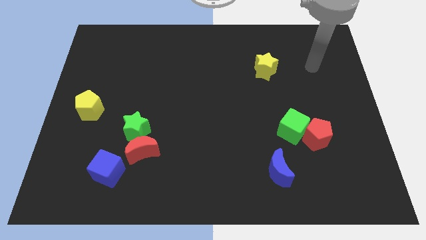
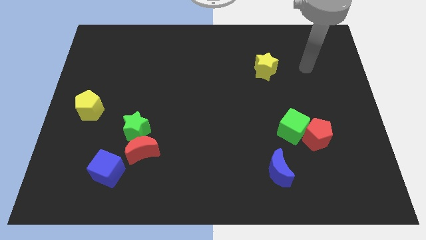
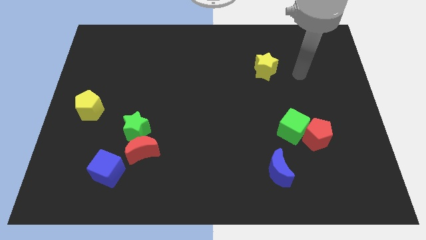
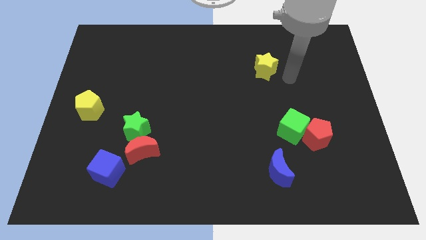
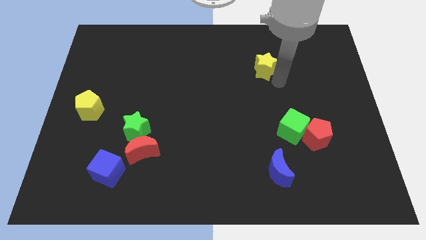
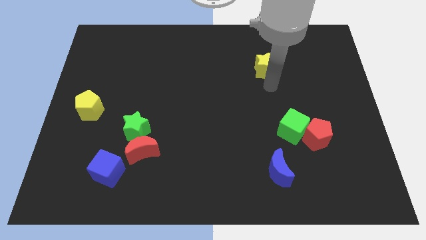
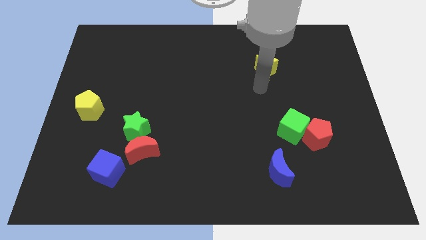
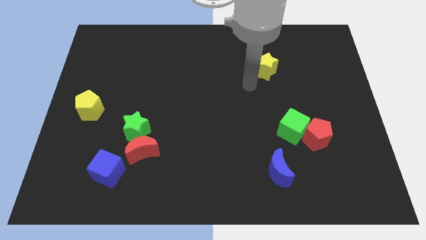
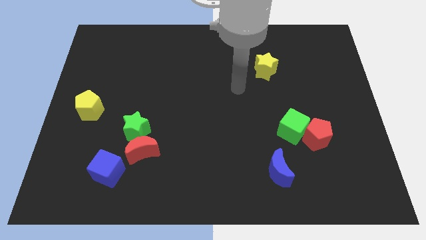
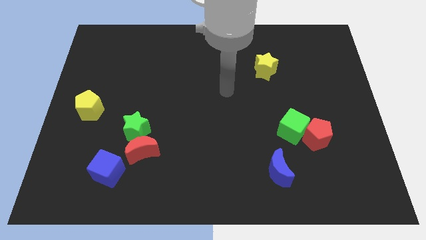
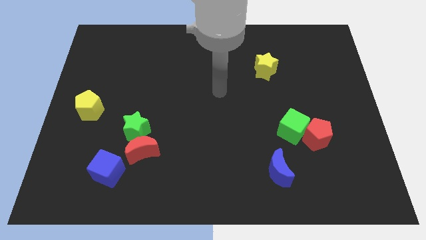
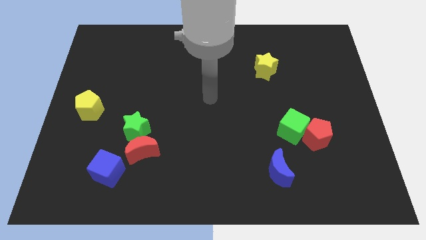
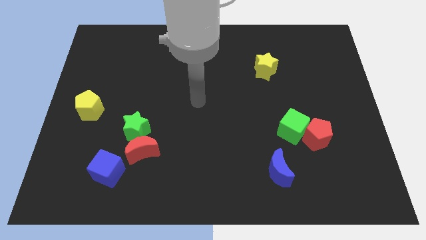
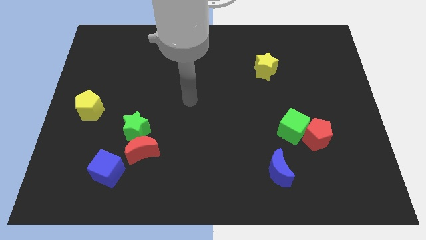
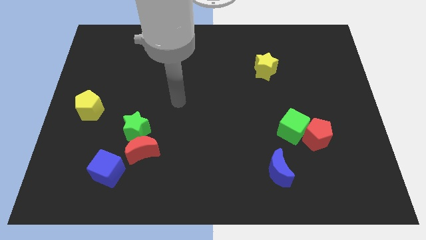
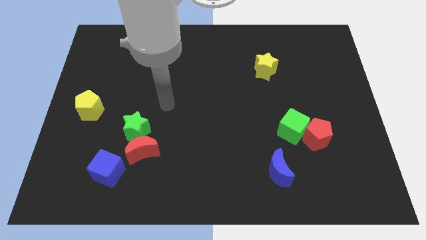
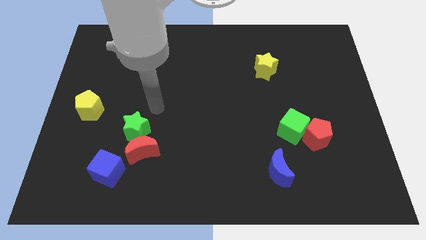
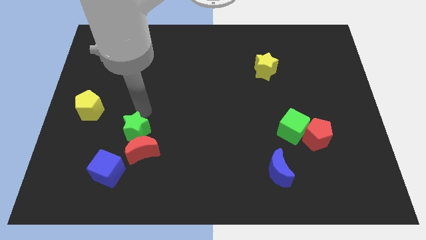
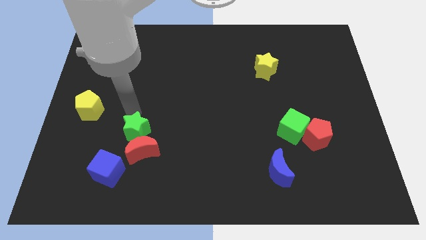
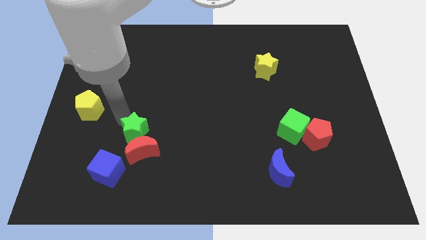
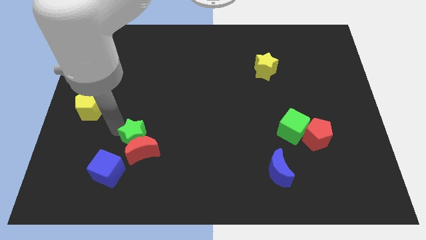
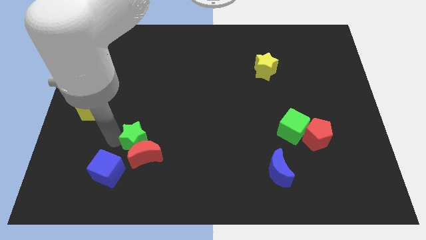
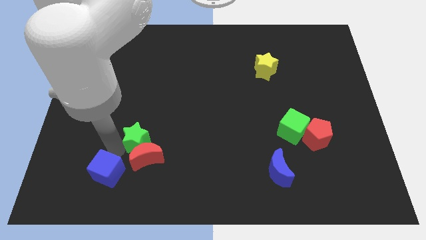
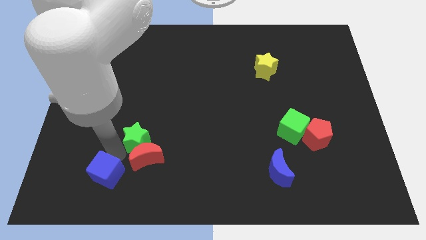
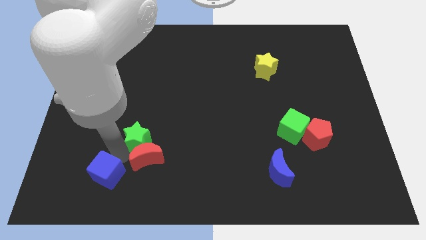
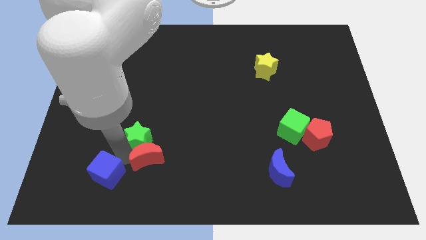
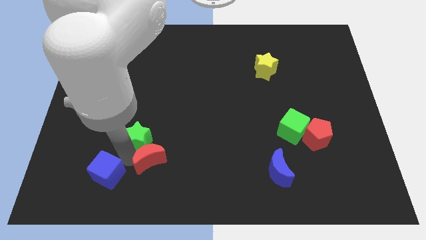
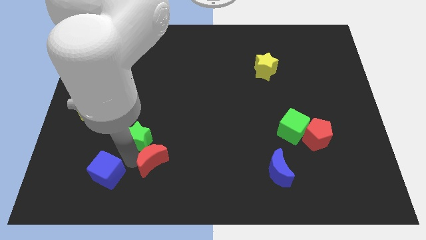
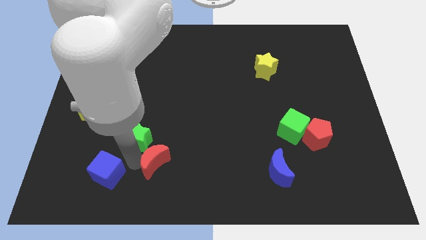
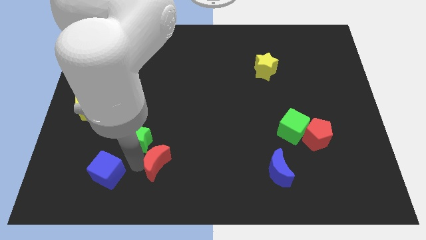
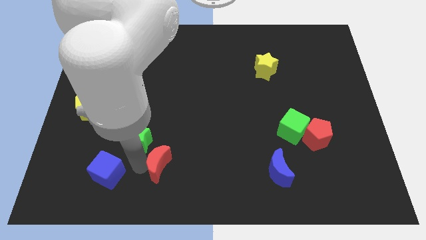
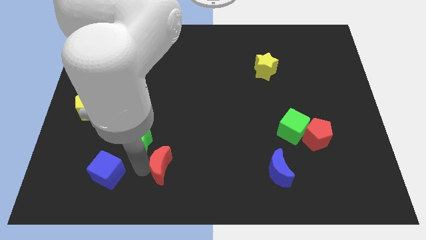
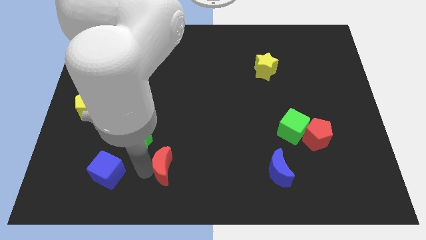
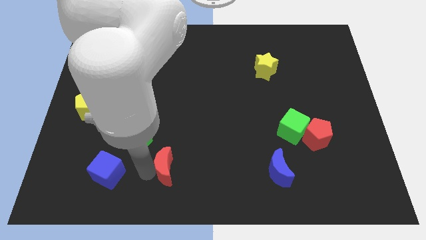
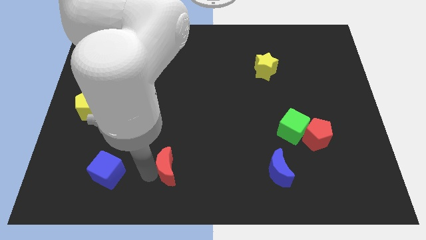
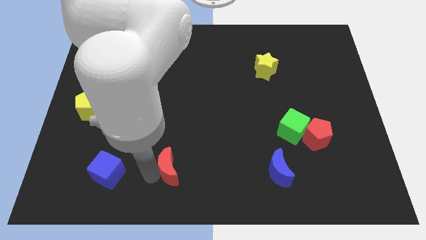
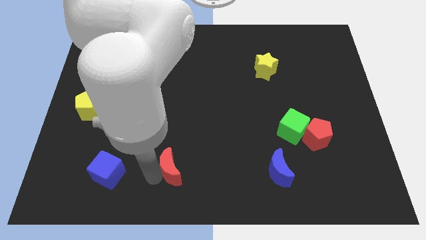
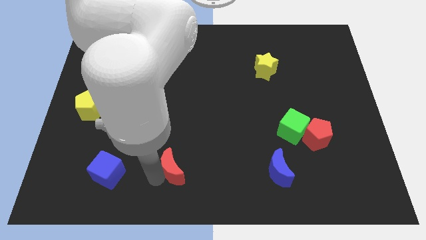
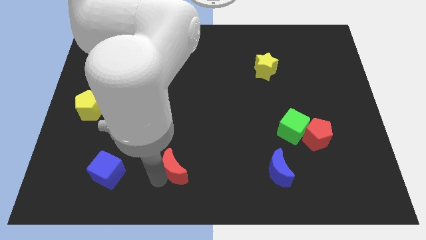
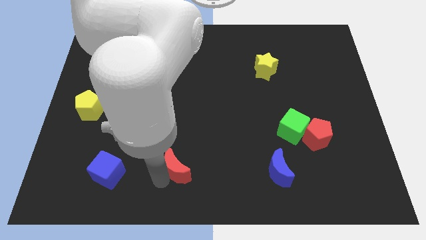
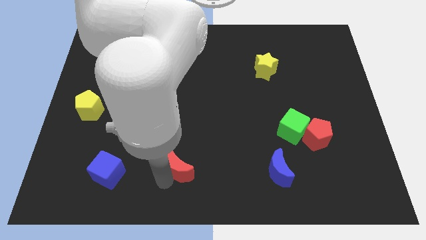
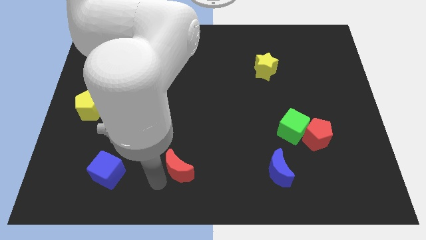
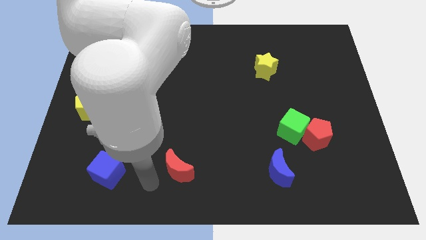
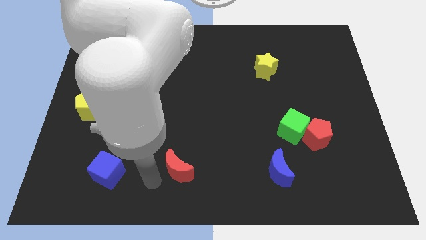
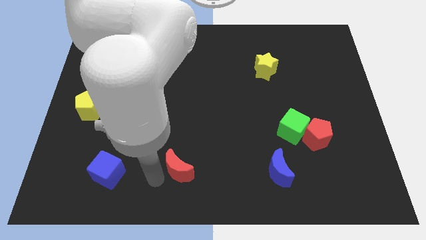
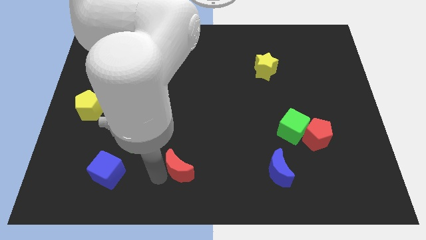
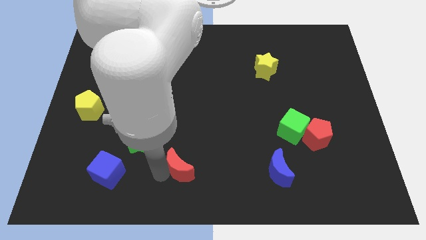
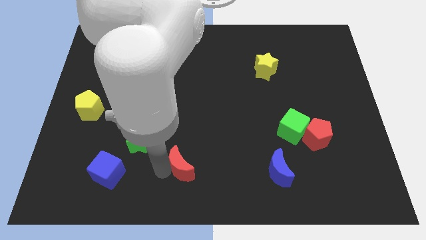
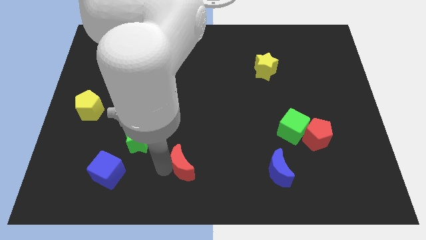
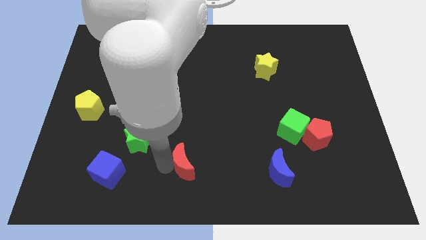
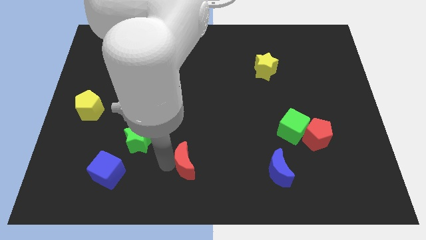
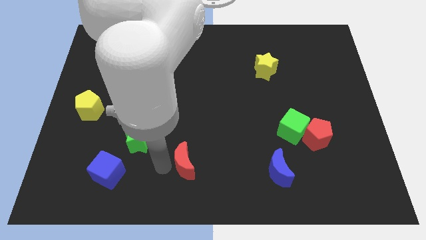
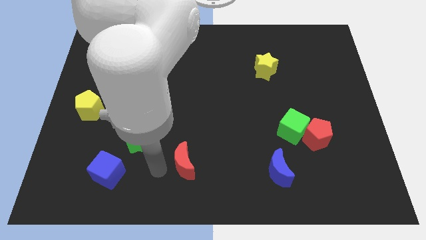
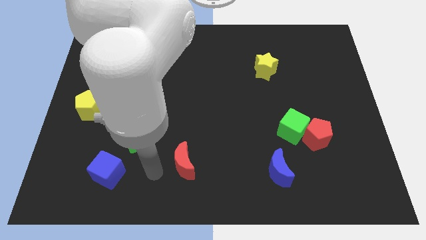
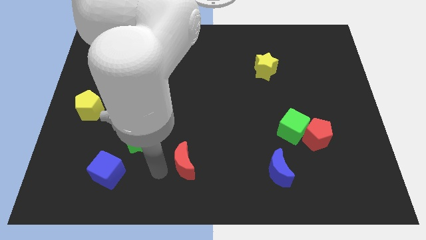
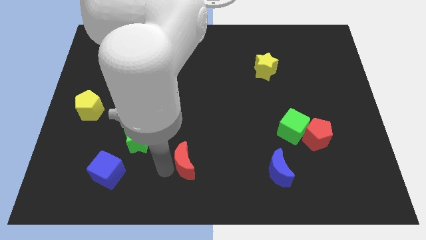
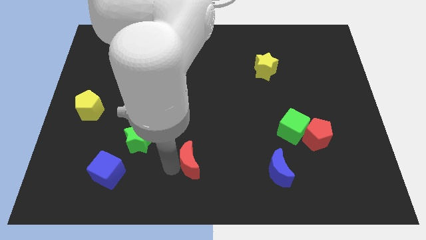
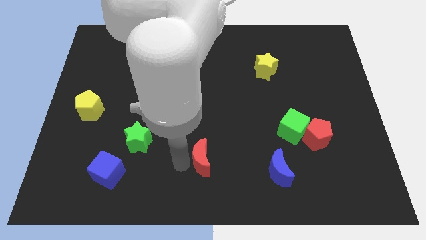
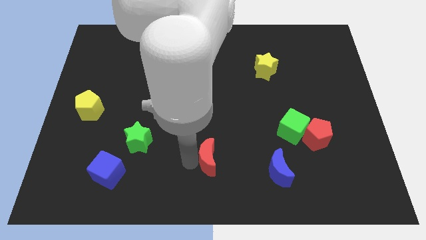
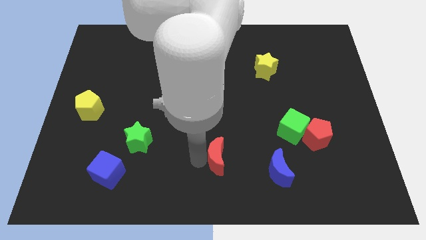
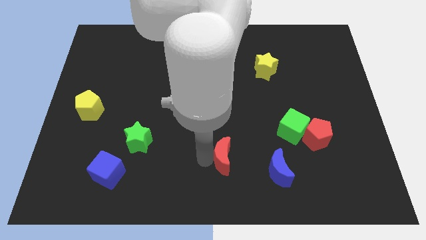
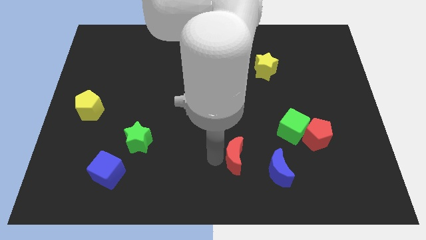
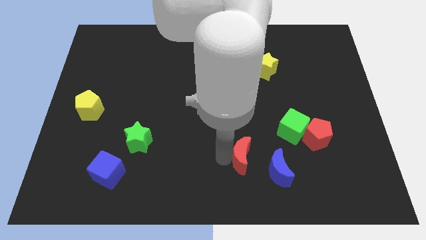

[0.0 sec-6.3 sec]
move the red moon right

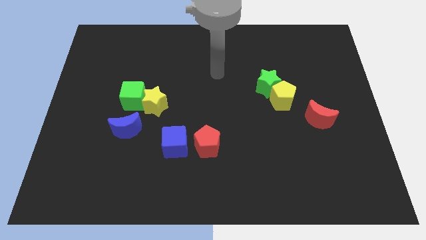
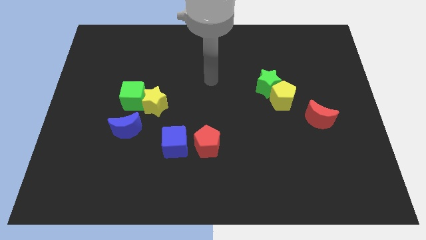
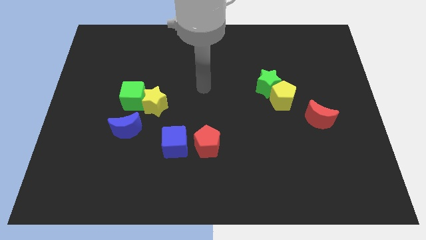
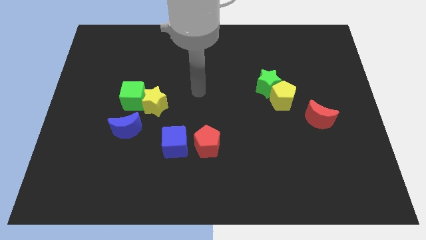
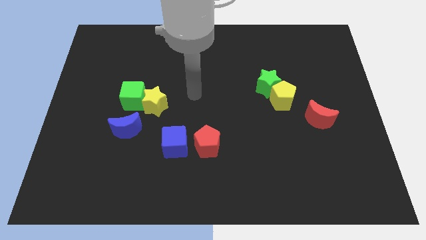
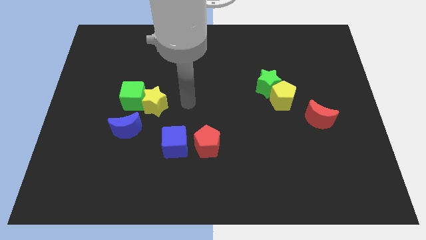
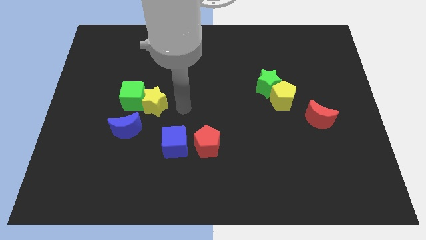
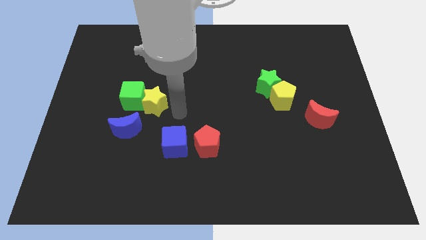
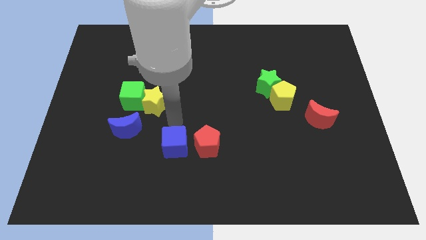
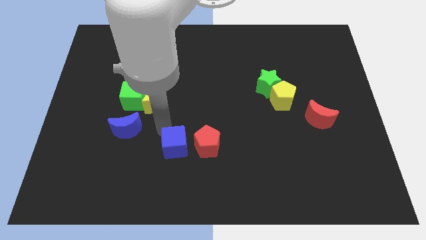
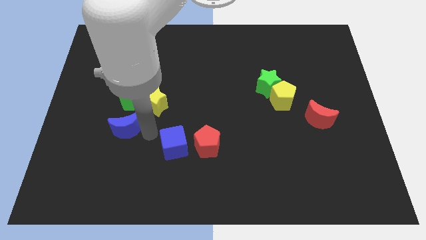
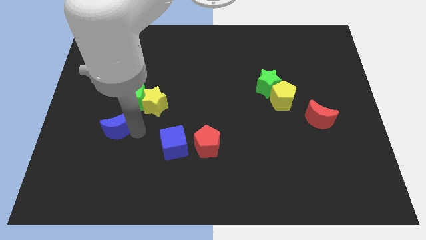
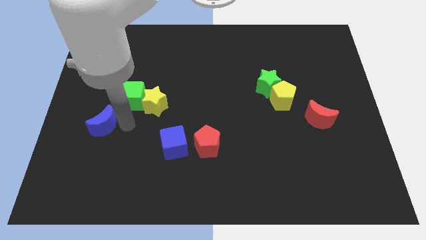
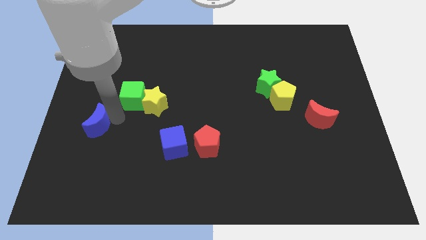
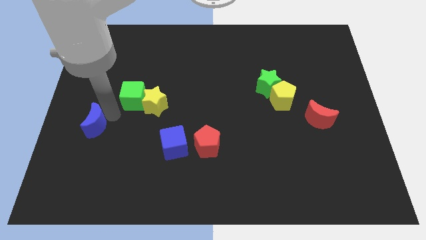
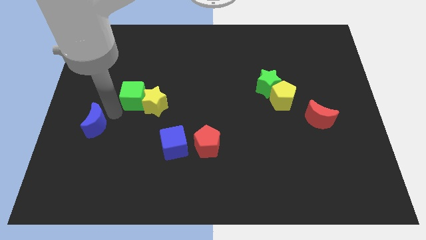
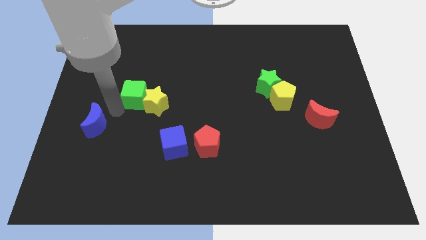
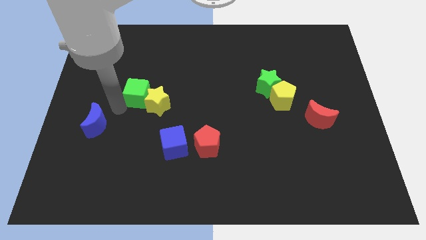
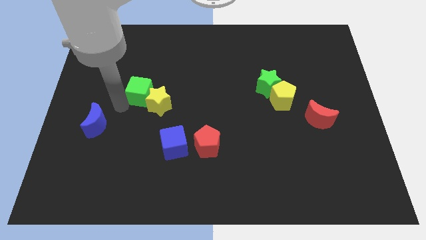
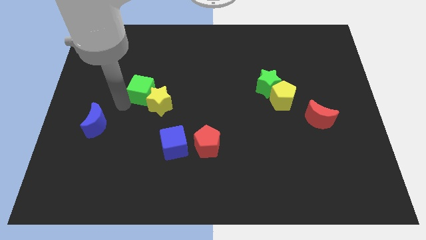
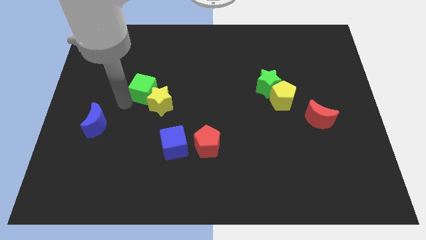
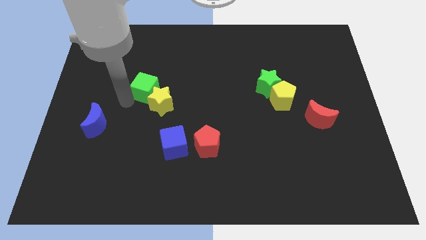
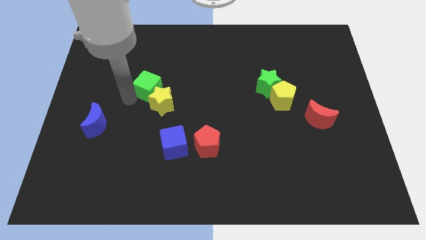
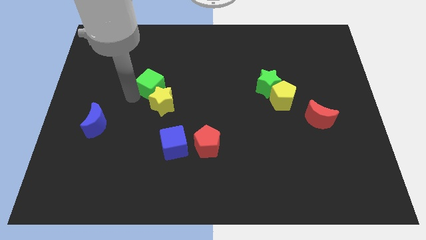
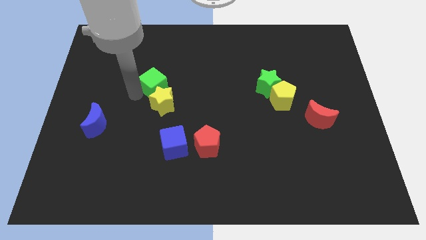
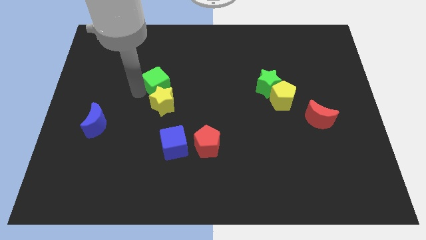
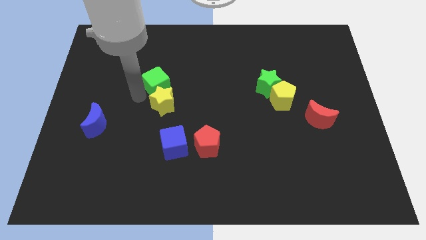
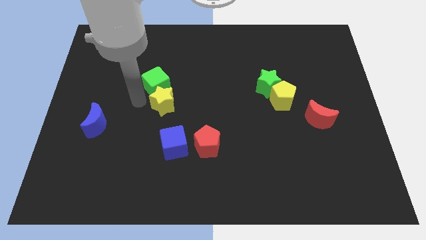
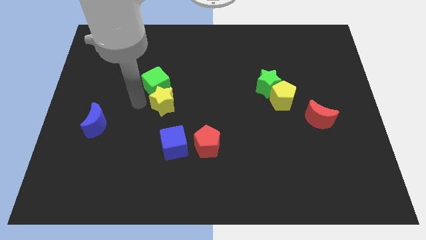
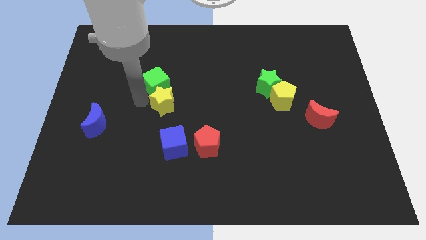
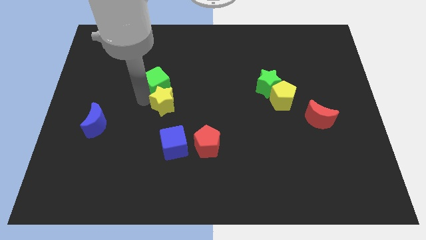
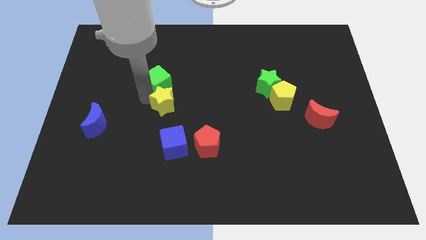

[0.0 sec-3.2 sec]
push the green cube up and right diagonally slightly
